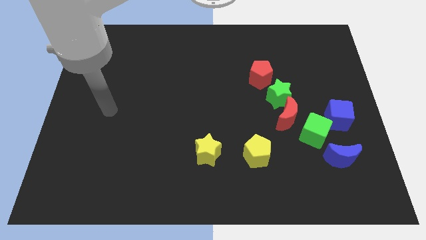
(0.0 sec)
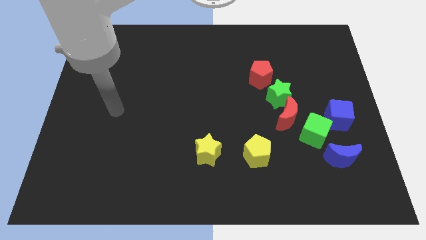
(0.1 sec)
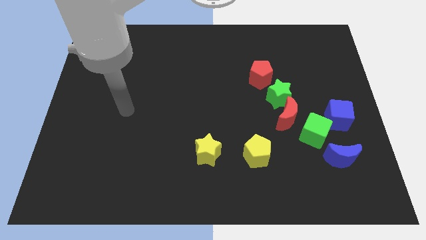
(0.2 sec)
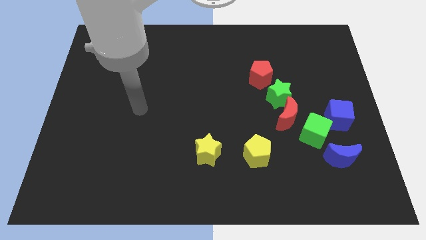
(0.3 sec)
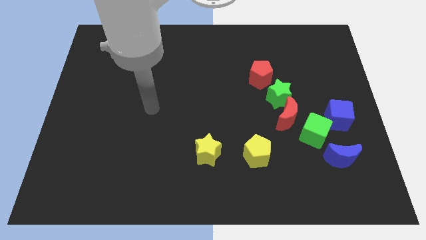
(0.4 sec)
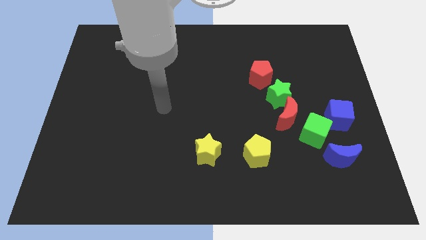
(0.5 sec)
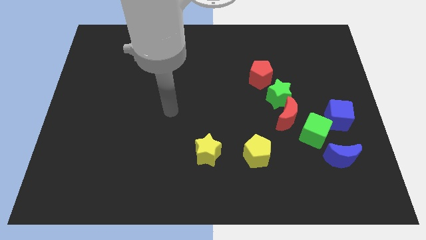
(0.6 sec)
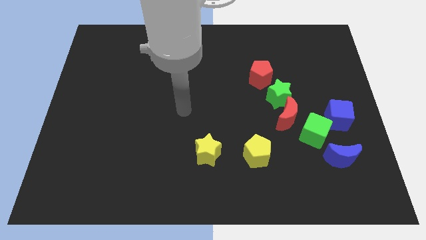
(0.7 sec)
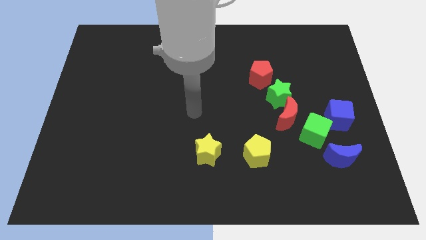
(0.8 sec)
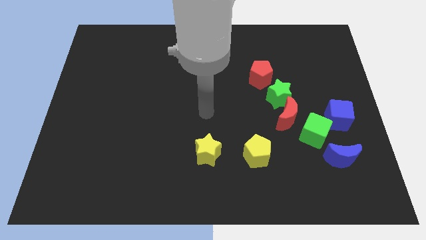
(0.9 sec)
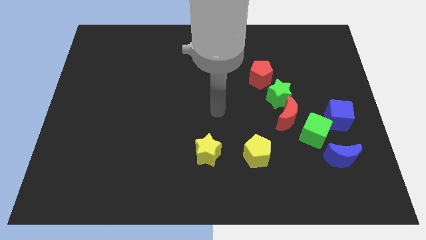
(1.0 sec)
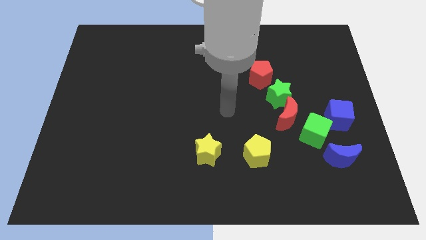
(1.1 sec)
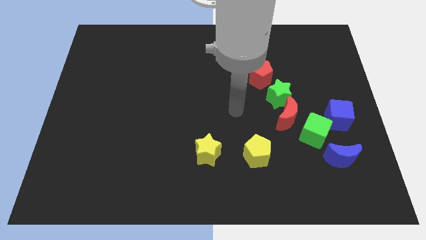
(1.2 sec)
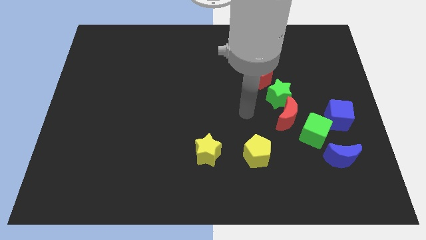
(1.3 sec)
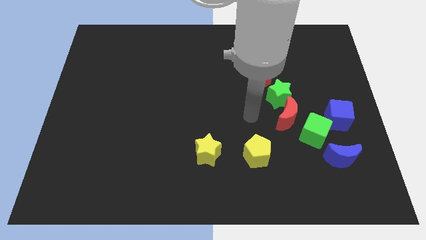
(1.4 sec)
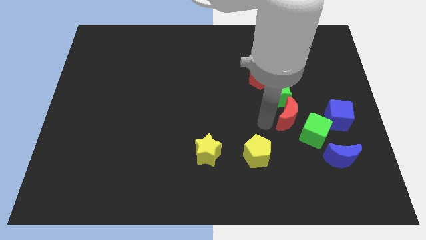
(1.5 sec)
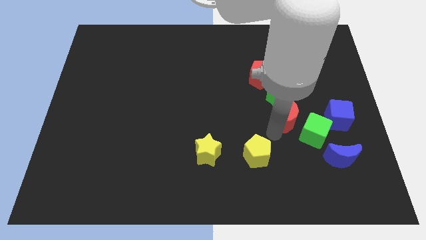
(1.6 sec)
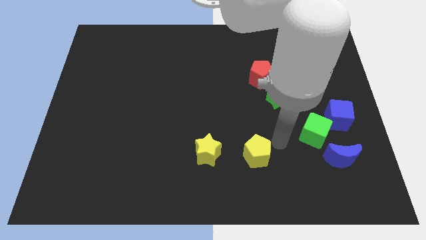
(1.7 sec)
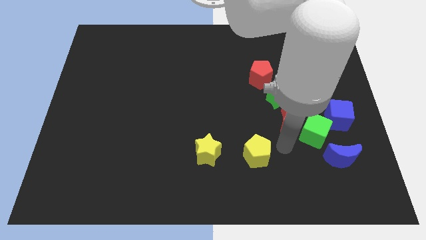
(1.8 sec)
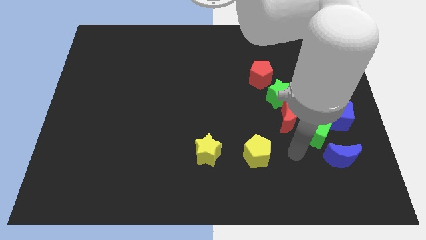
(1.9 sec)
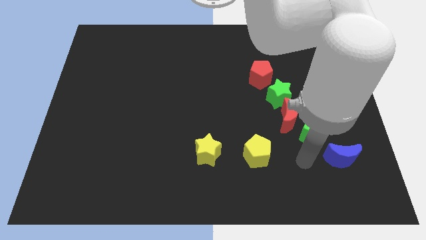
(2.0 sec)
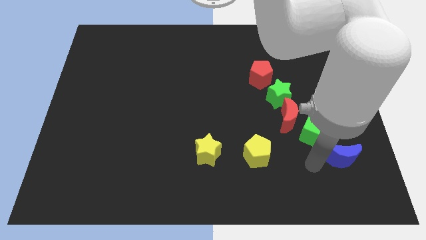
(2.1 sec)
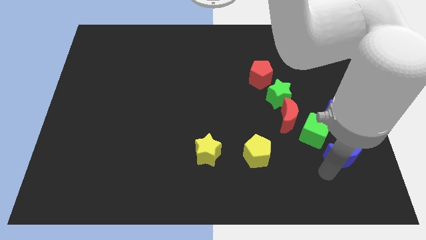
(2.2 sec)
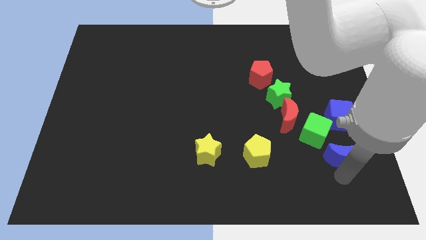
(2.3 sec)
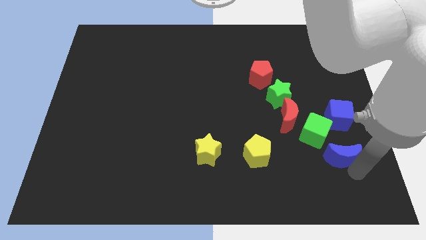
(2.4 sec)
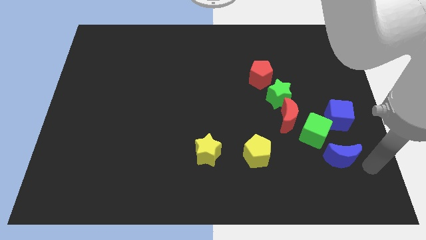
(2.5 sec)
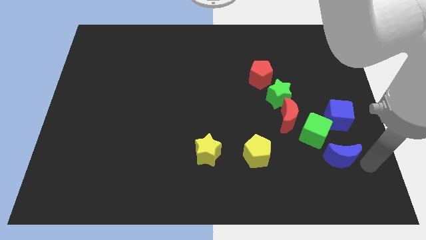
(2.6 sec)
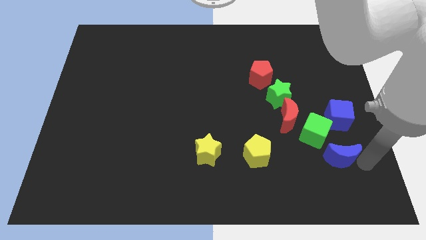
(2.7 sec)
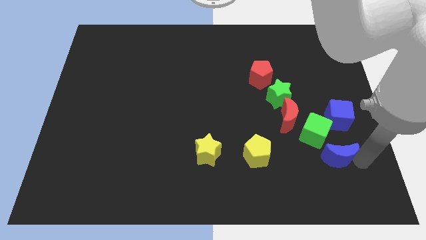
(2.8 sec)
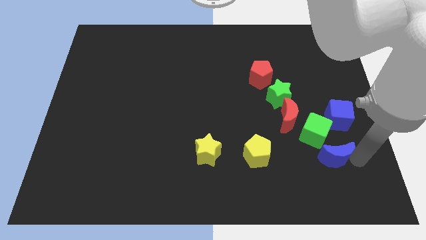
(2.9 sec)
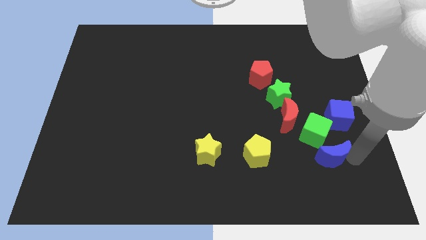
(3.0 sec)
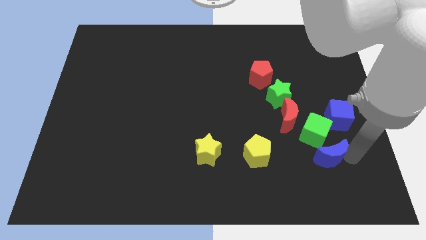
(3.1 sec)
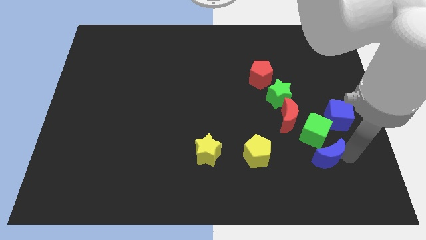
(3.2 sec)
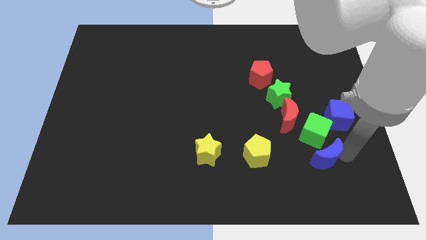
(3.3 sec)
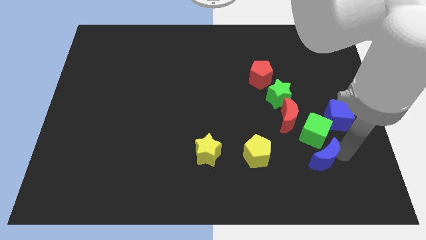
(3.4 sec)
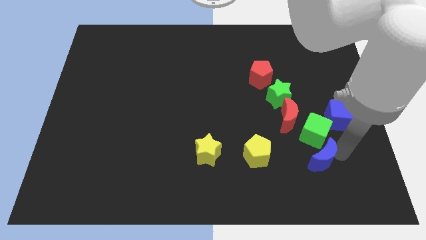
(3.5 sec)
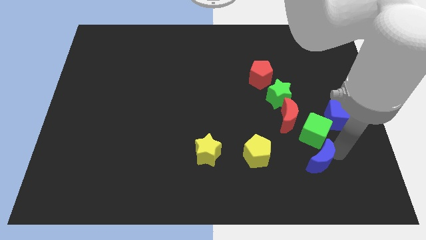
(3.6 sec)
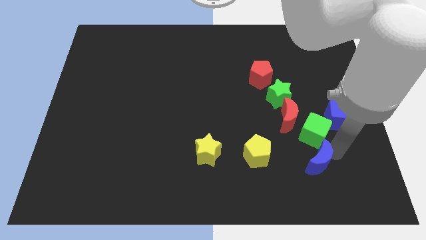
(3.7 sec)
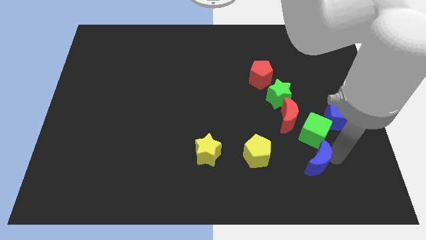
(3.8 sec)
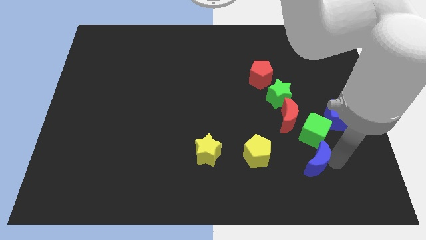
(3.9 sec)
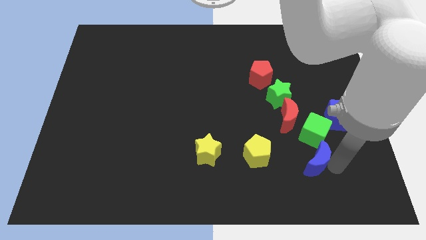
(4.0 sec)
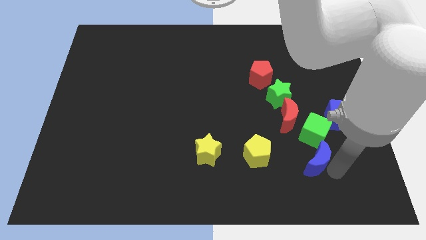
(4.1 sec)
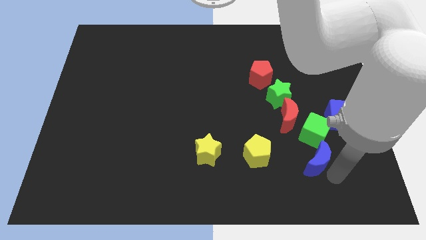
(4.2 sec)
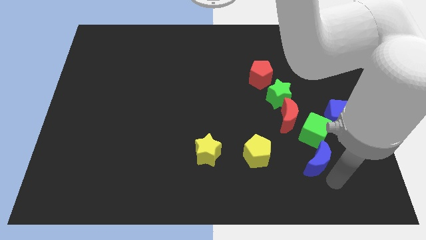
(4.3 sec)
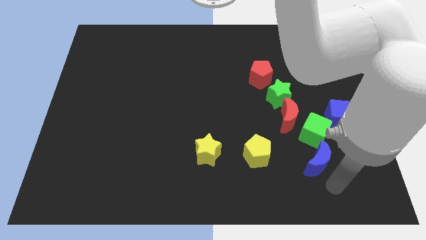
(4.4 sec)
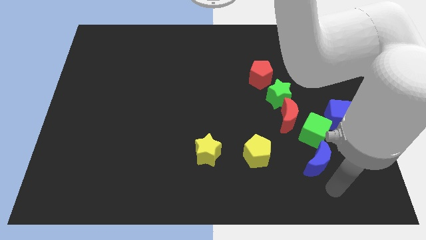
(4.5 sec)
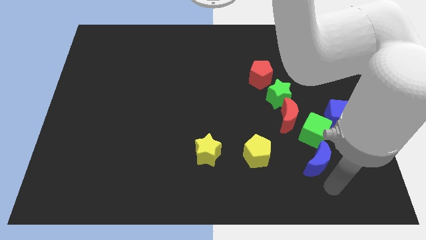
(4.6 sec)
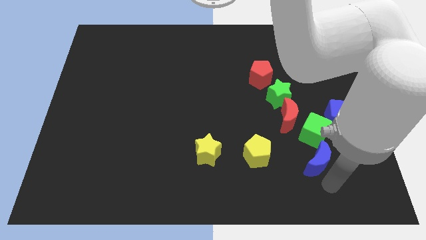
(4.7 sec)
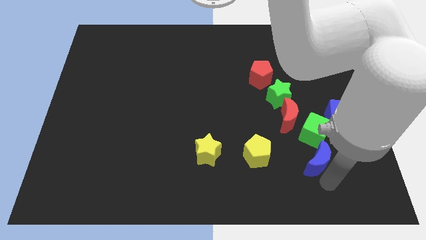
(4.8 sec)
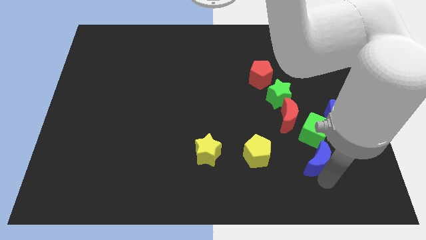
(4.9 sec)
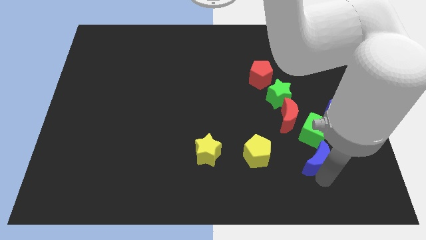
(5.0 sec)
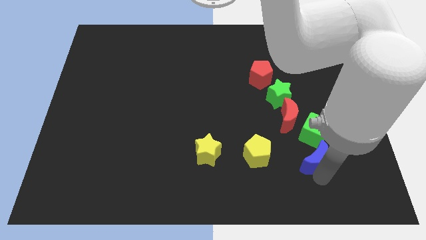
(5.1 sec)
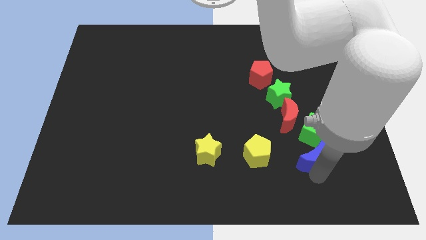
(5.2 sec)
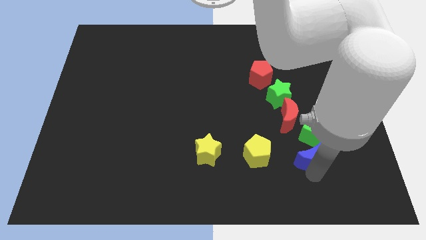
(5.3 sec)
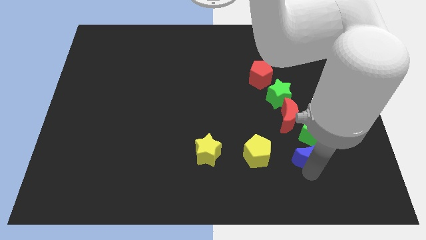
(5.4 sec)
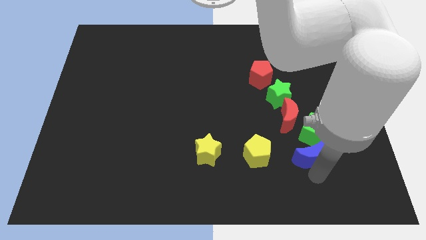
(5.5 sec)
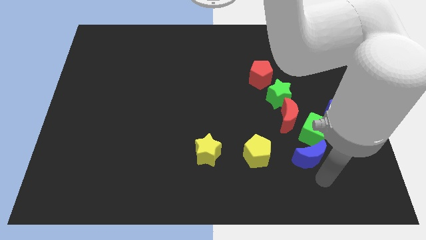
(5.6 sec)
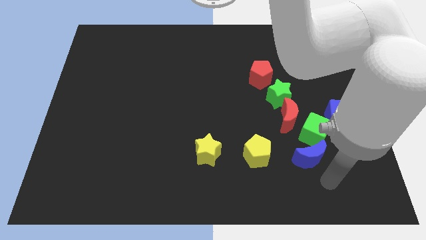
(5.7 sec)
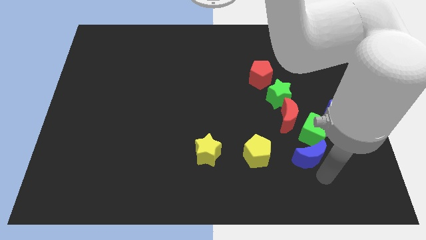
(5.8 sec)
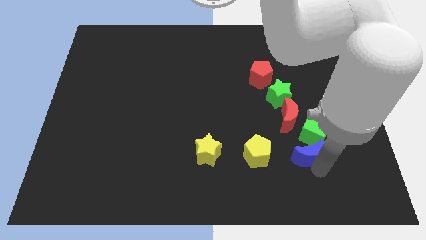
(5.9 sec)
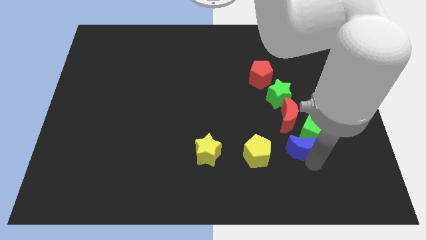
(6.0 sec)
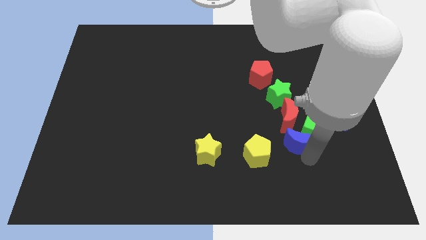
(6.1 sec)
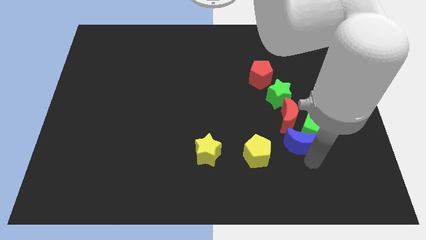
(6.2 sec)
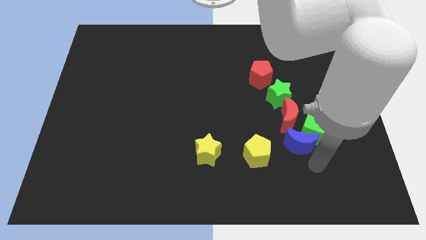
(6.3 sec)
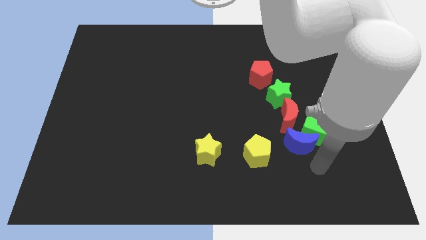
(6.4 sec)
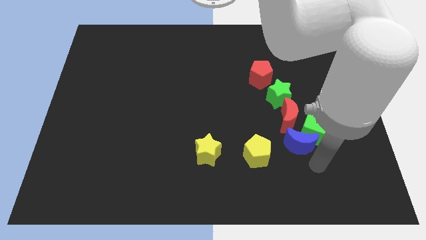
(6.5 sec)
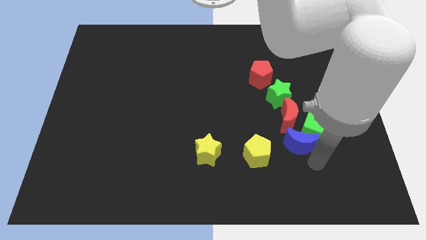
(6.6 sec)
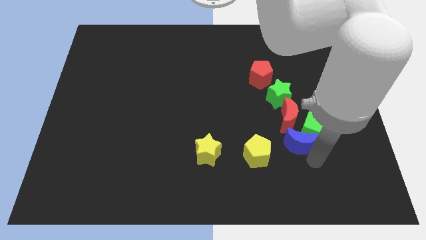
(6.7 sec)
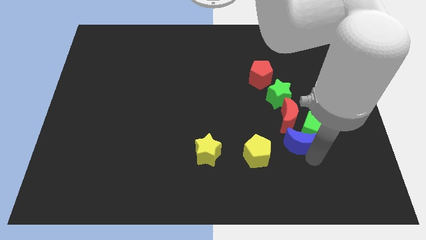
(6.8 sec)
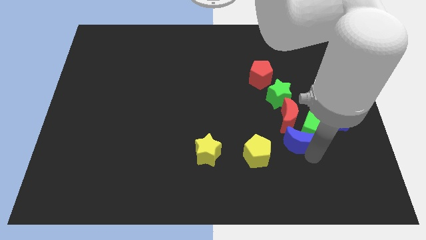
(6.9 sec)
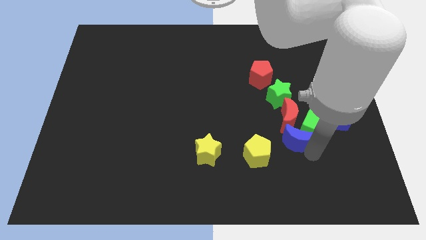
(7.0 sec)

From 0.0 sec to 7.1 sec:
put the blue moon close to the red moon
